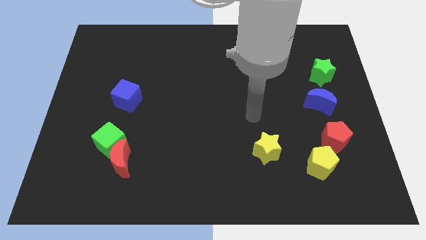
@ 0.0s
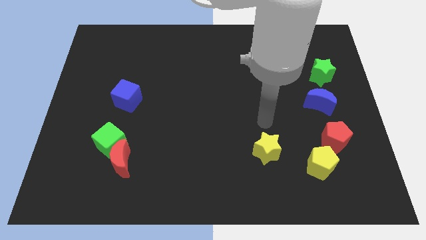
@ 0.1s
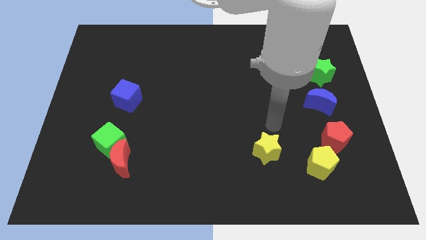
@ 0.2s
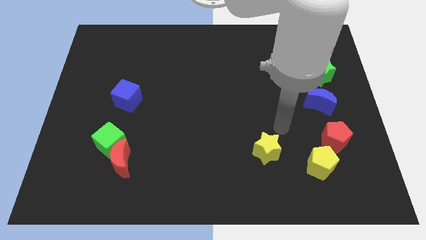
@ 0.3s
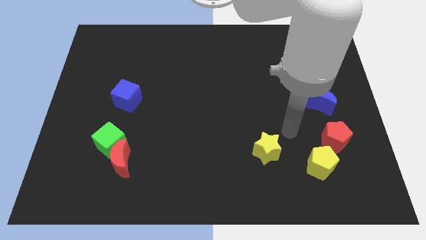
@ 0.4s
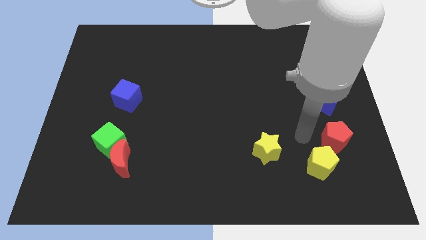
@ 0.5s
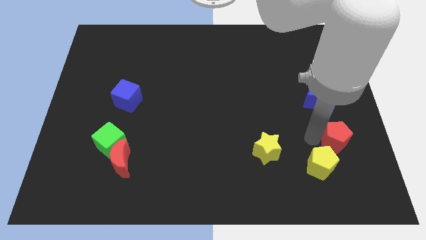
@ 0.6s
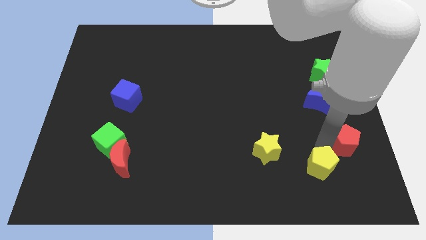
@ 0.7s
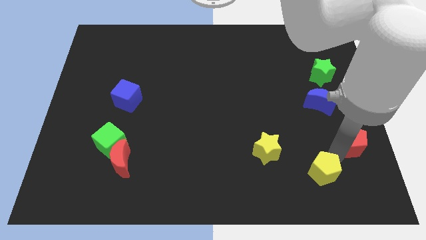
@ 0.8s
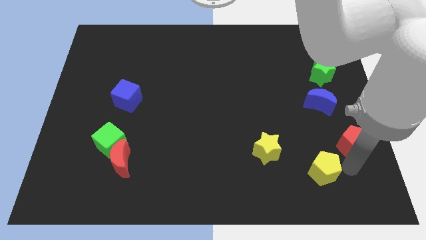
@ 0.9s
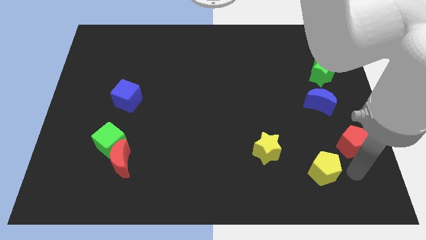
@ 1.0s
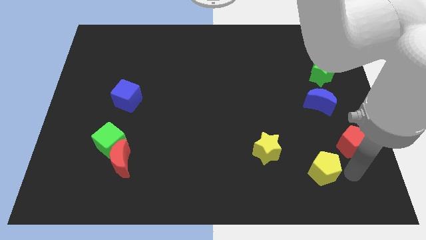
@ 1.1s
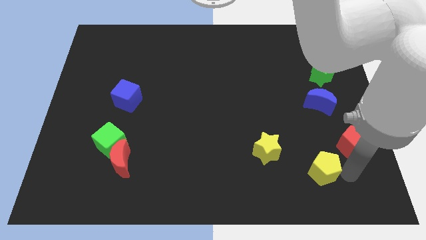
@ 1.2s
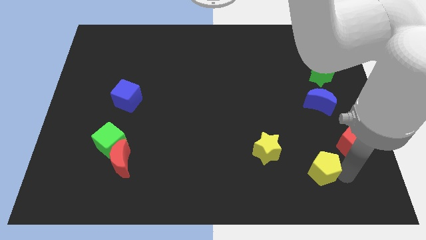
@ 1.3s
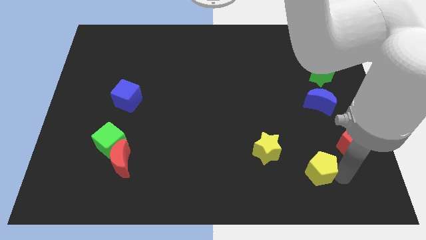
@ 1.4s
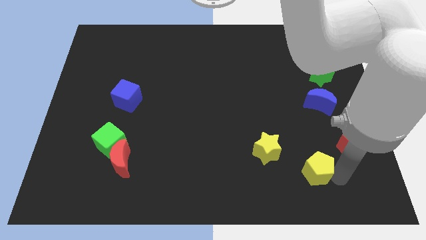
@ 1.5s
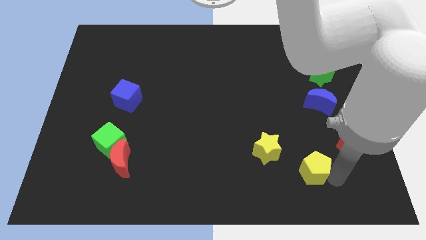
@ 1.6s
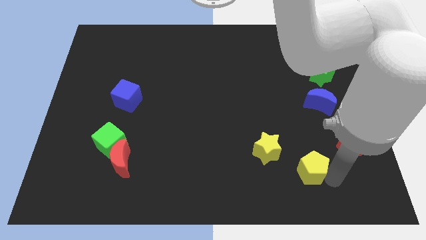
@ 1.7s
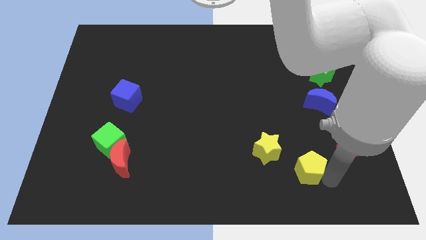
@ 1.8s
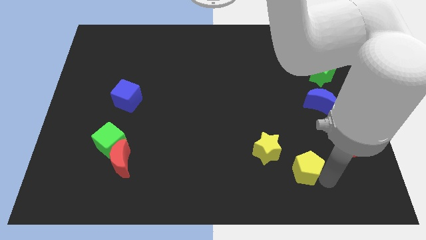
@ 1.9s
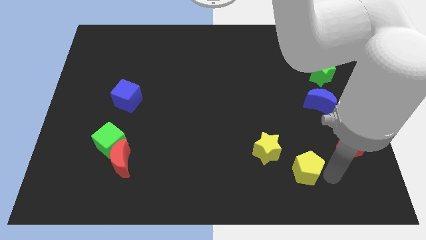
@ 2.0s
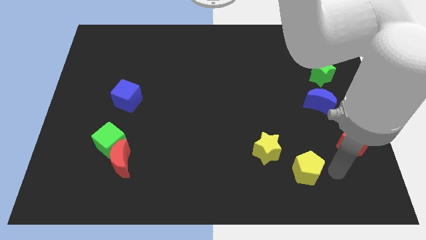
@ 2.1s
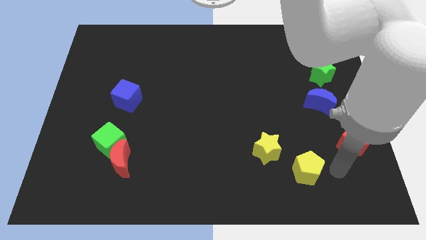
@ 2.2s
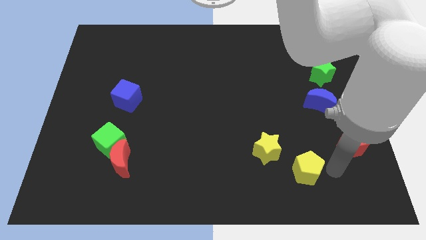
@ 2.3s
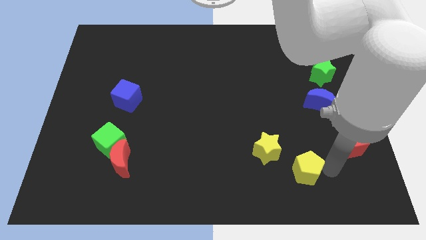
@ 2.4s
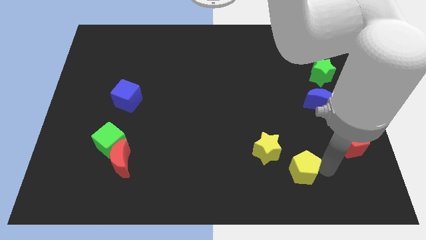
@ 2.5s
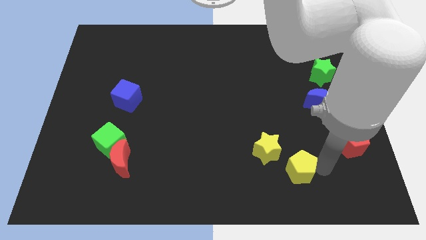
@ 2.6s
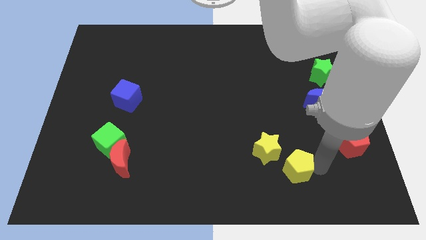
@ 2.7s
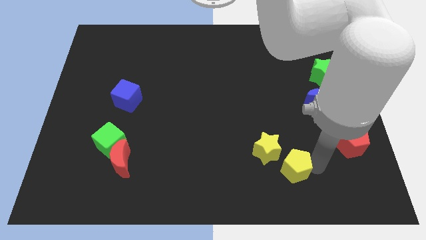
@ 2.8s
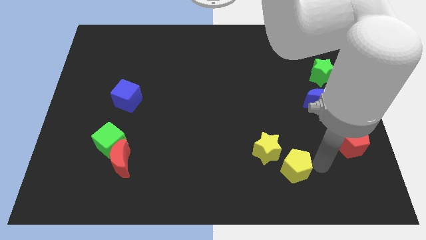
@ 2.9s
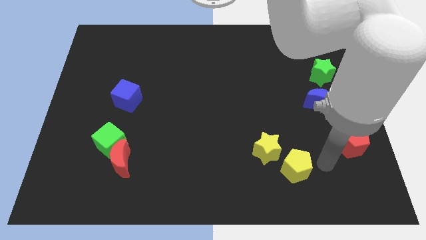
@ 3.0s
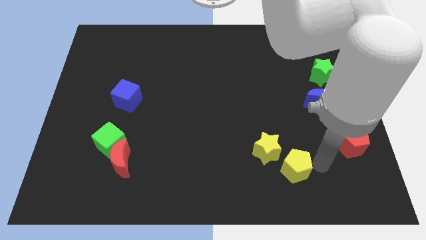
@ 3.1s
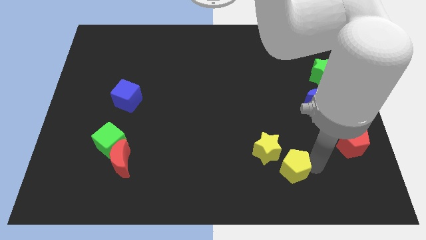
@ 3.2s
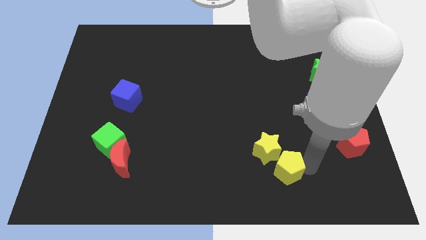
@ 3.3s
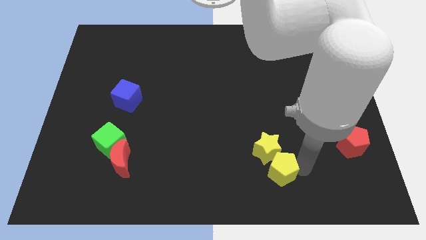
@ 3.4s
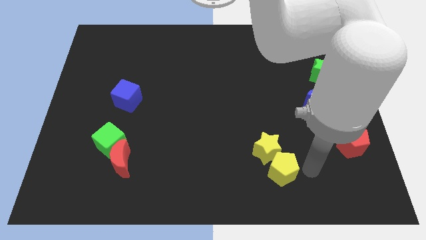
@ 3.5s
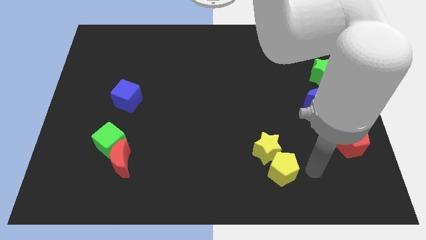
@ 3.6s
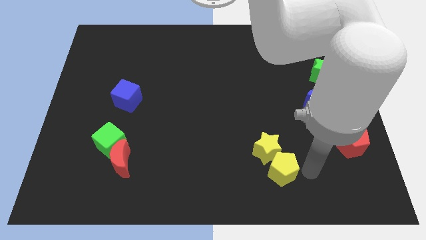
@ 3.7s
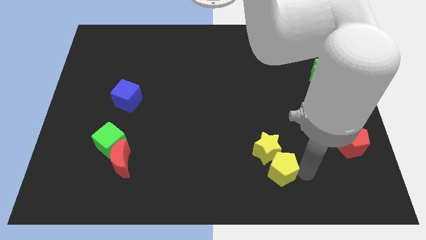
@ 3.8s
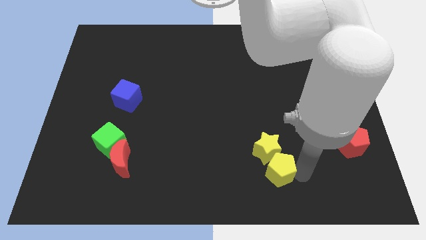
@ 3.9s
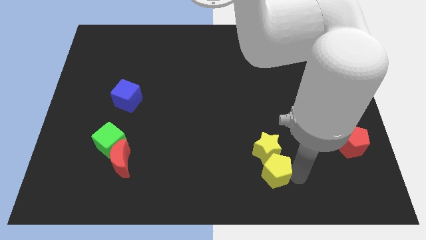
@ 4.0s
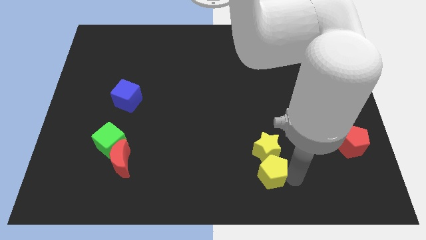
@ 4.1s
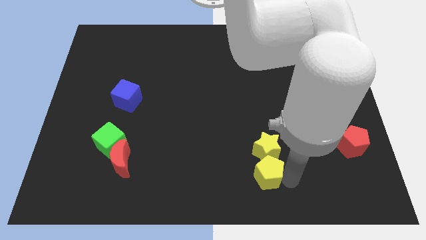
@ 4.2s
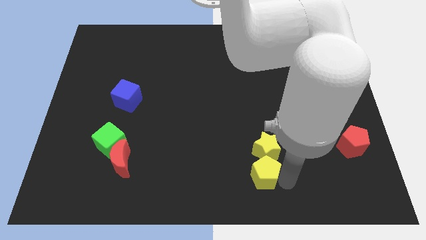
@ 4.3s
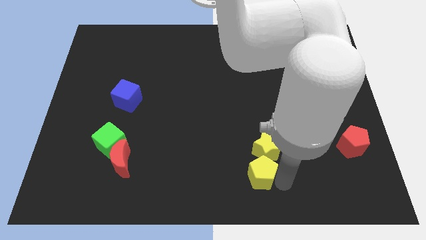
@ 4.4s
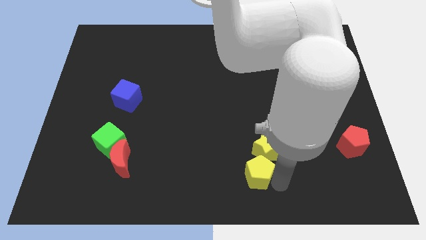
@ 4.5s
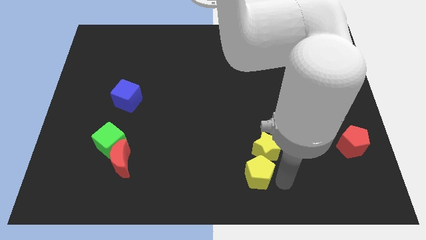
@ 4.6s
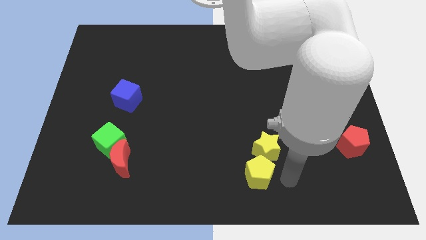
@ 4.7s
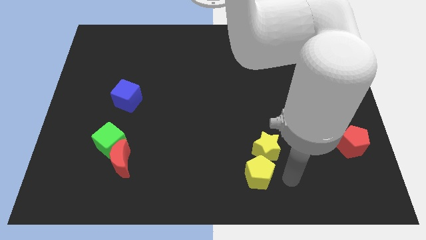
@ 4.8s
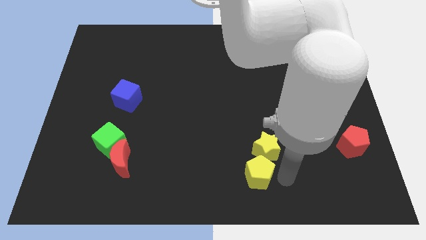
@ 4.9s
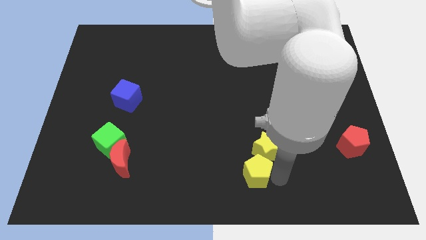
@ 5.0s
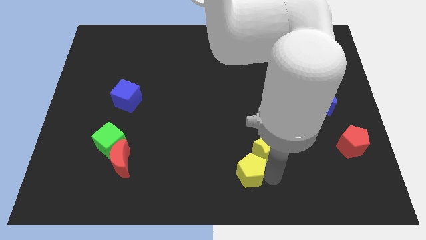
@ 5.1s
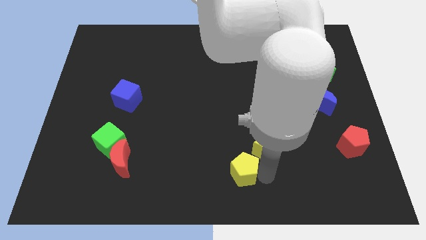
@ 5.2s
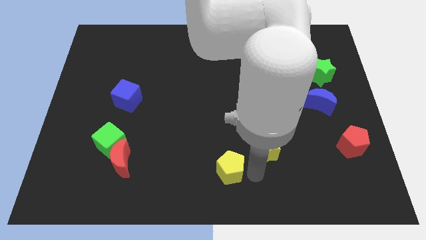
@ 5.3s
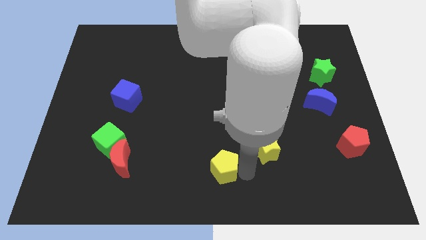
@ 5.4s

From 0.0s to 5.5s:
slide the yellow pentagon to the left

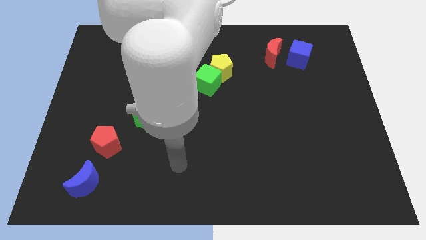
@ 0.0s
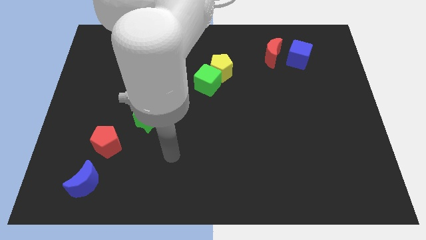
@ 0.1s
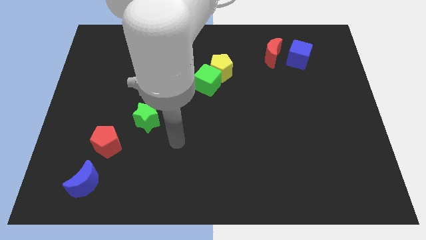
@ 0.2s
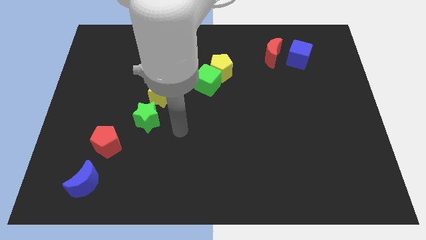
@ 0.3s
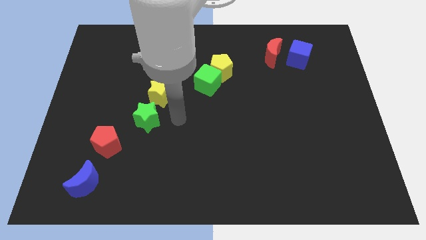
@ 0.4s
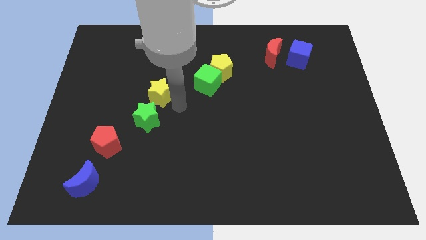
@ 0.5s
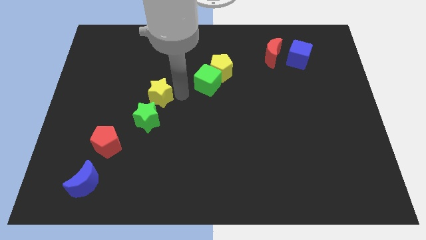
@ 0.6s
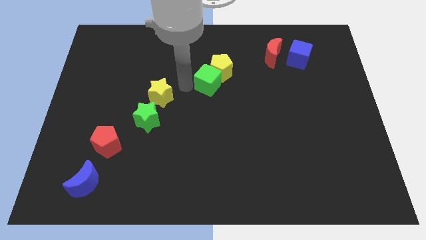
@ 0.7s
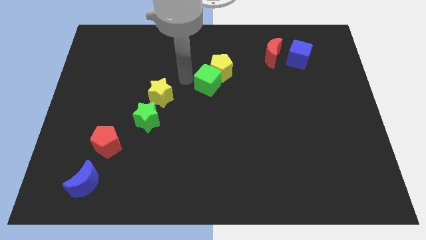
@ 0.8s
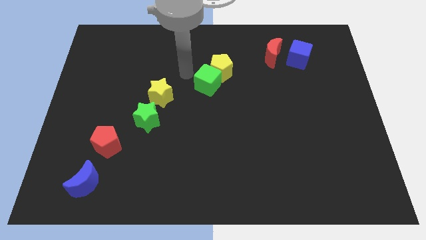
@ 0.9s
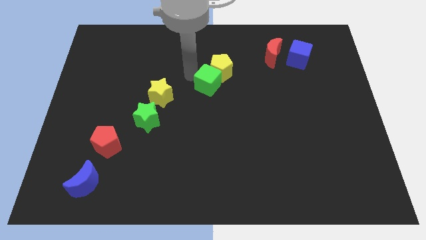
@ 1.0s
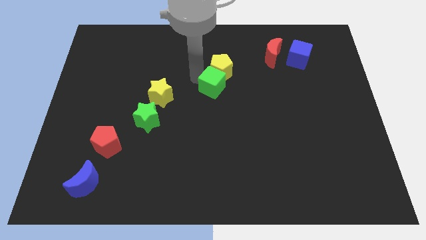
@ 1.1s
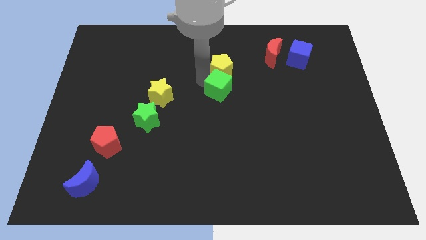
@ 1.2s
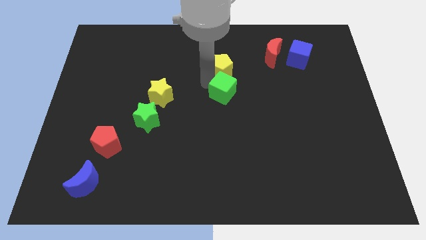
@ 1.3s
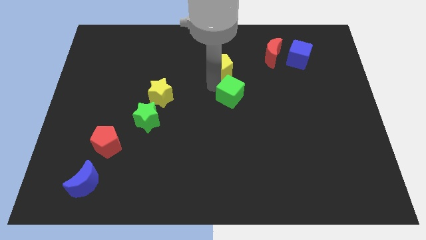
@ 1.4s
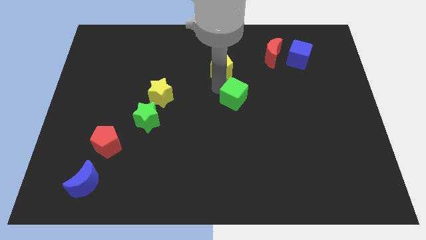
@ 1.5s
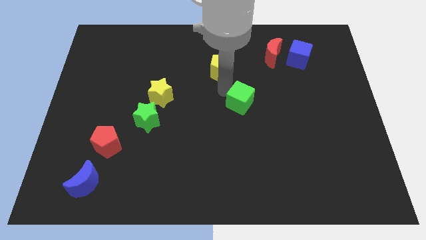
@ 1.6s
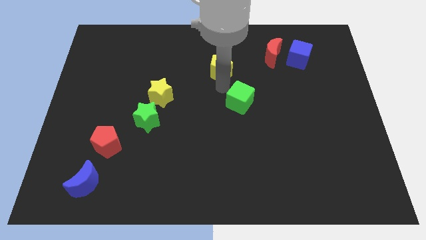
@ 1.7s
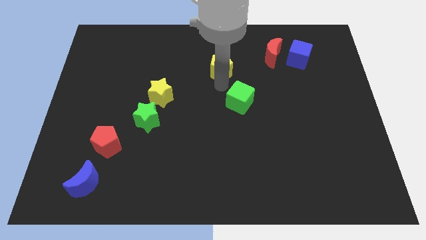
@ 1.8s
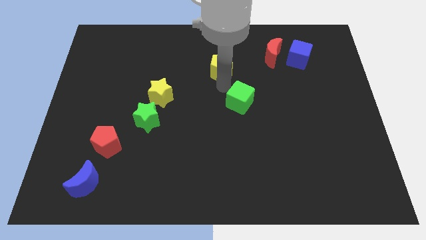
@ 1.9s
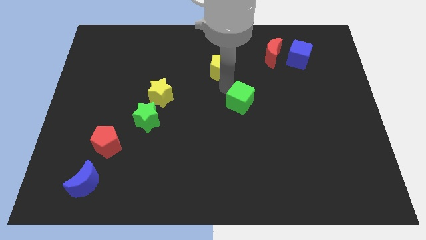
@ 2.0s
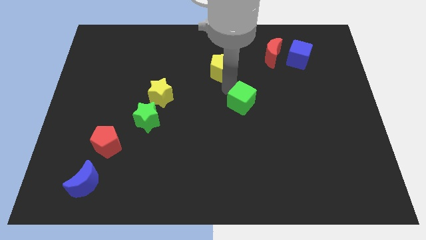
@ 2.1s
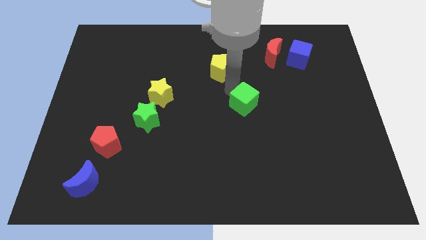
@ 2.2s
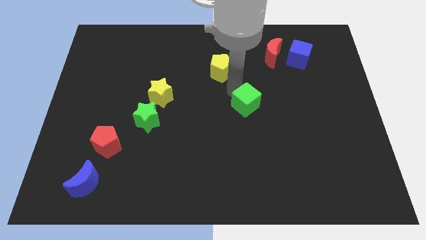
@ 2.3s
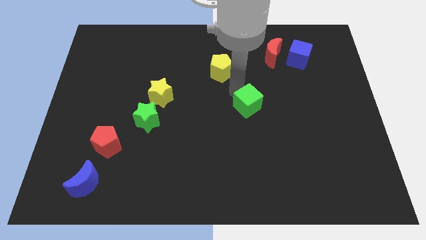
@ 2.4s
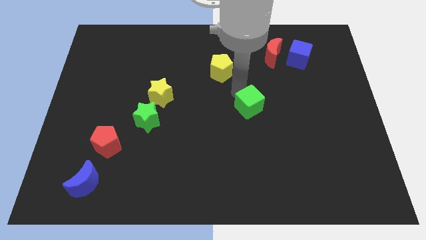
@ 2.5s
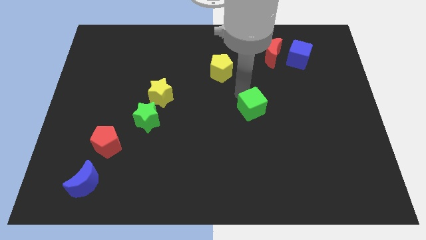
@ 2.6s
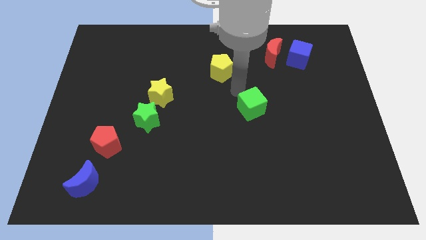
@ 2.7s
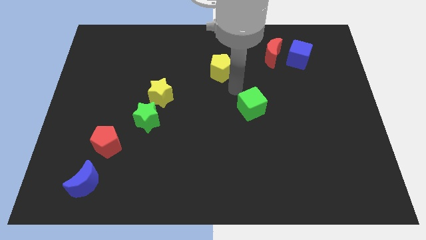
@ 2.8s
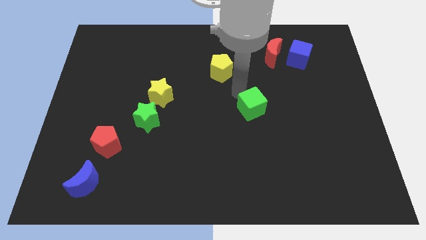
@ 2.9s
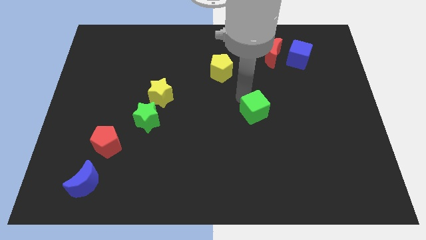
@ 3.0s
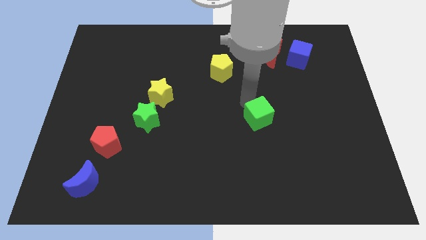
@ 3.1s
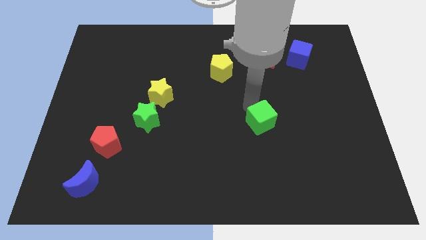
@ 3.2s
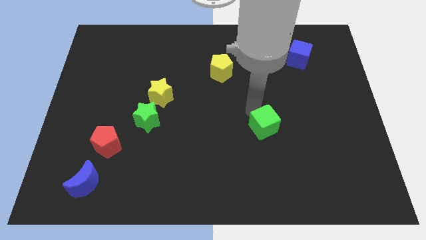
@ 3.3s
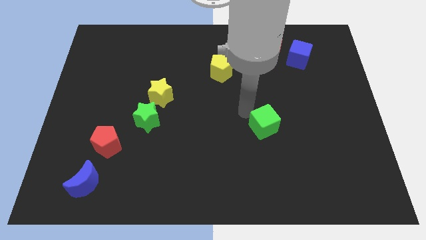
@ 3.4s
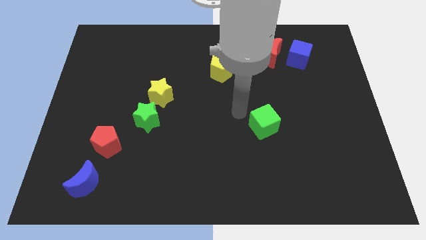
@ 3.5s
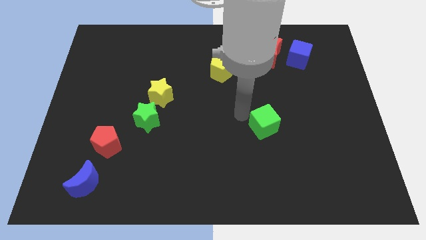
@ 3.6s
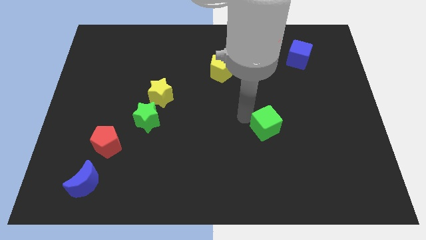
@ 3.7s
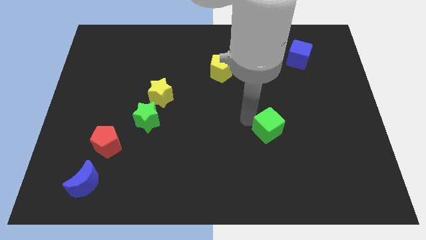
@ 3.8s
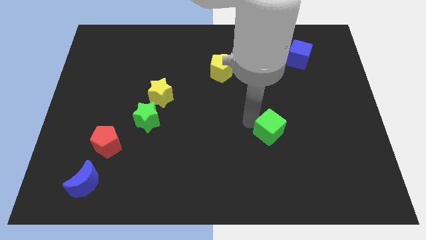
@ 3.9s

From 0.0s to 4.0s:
slide the green cube down and to the right
